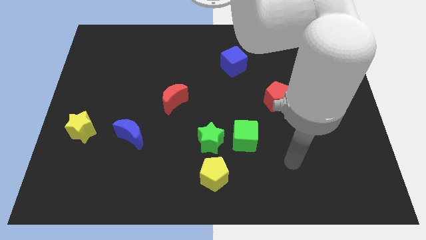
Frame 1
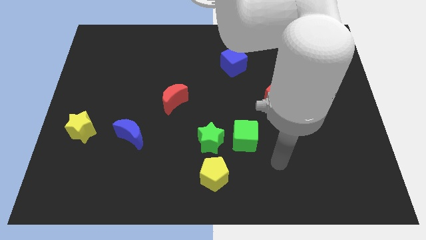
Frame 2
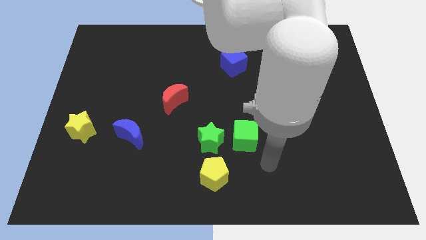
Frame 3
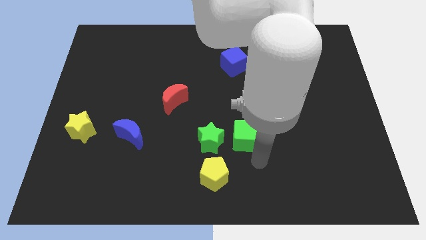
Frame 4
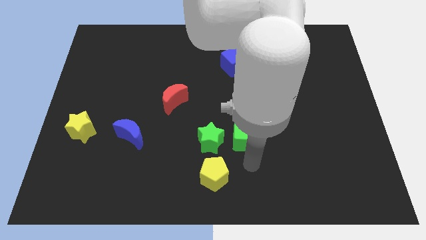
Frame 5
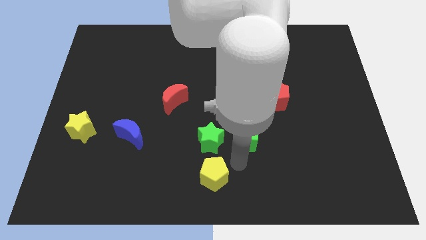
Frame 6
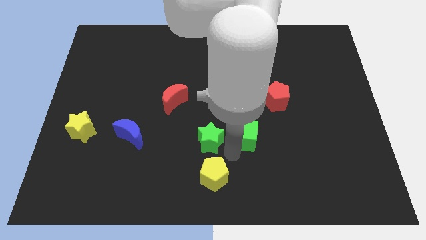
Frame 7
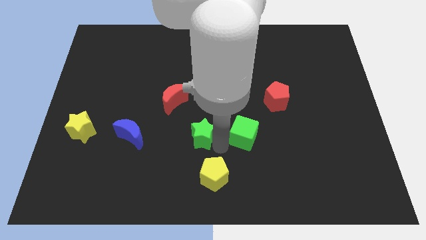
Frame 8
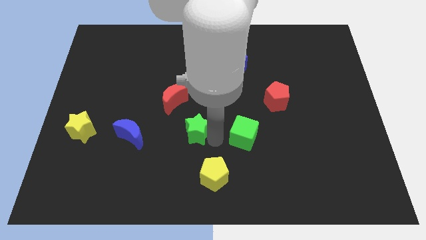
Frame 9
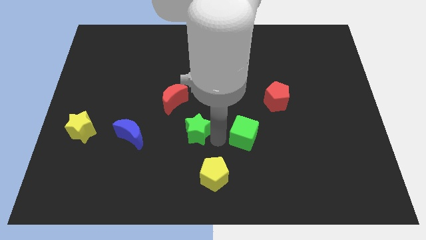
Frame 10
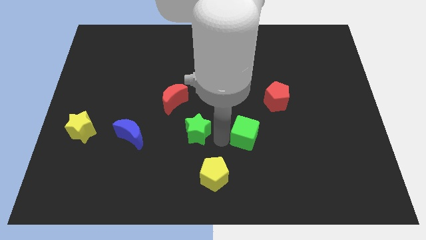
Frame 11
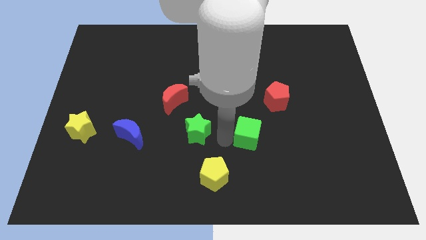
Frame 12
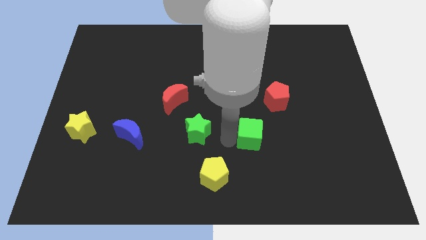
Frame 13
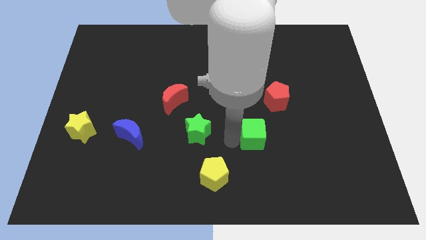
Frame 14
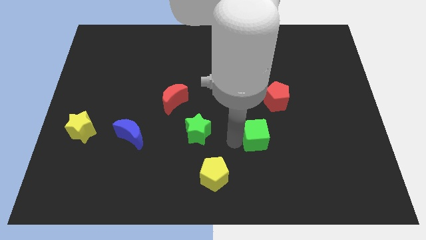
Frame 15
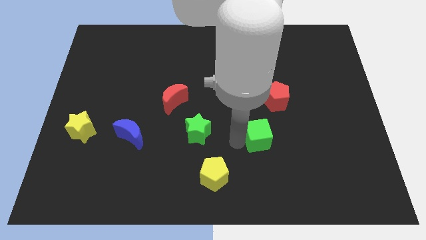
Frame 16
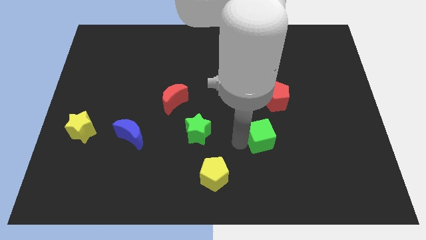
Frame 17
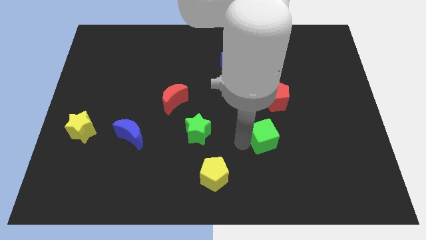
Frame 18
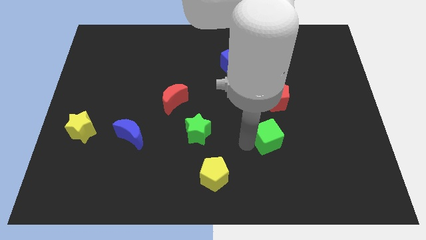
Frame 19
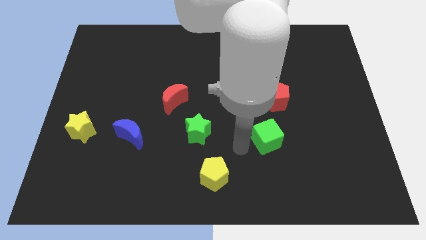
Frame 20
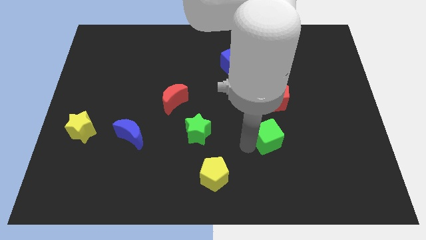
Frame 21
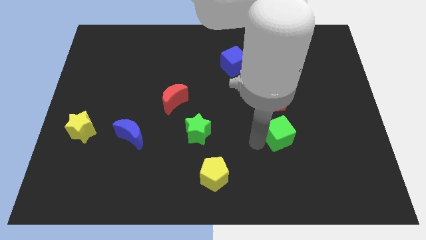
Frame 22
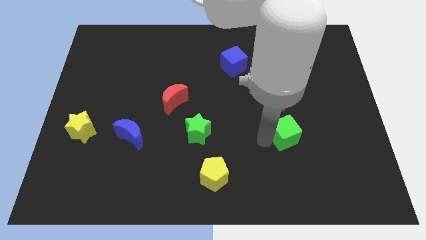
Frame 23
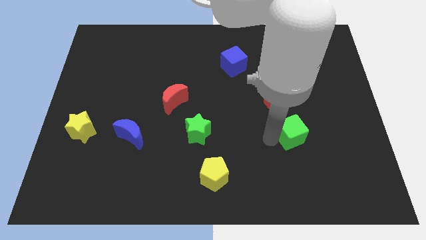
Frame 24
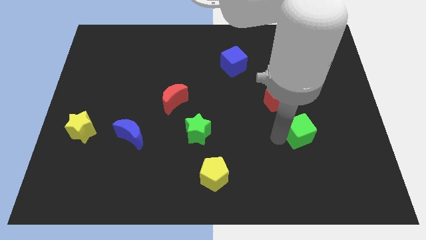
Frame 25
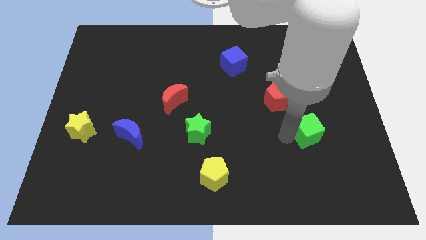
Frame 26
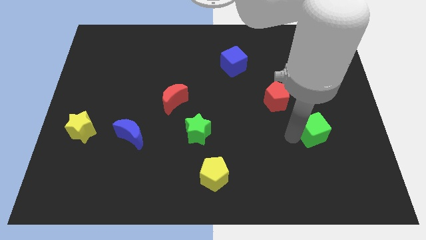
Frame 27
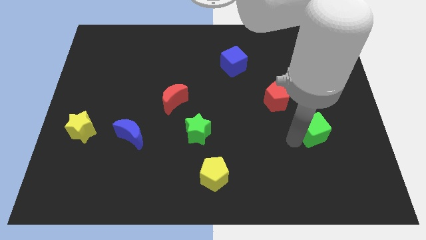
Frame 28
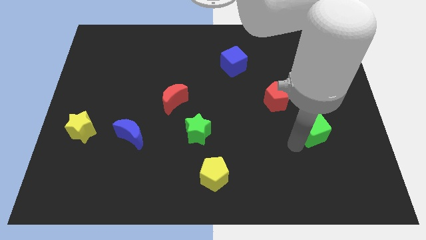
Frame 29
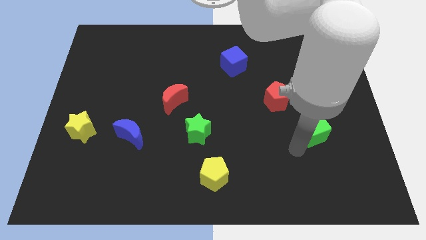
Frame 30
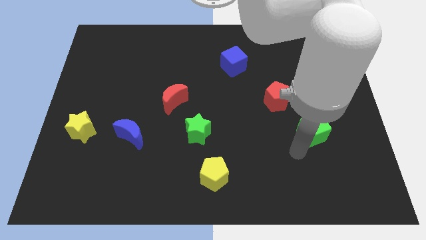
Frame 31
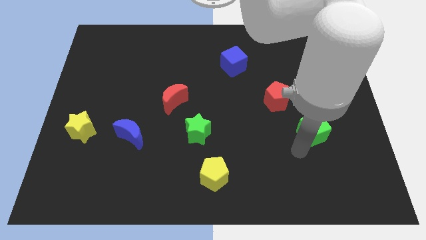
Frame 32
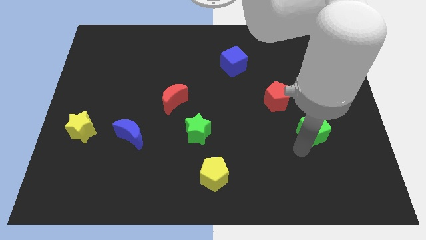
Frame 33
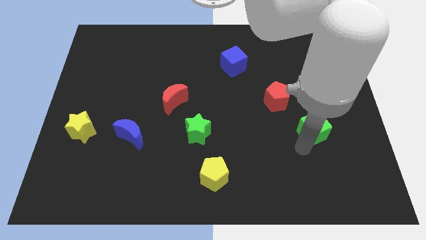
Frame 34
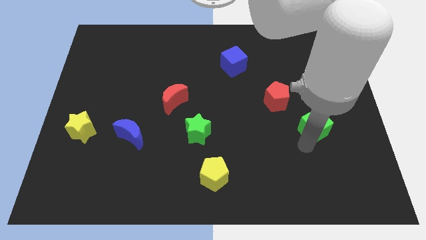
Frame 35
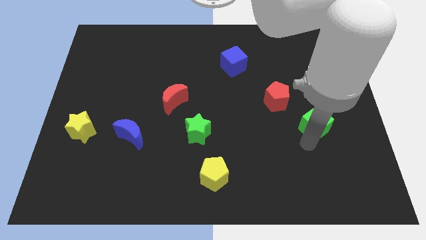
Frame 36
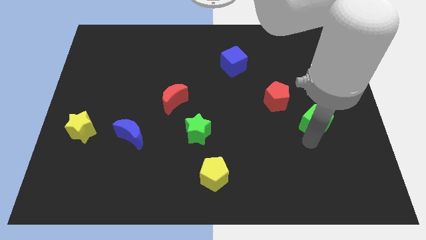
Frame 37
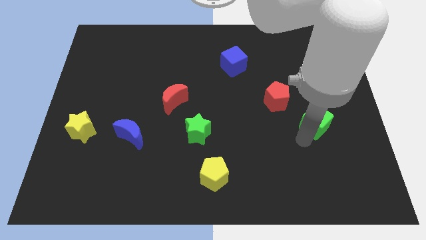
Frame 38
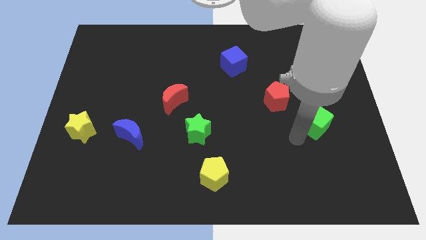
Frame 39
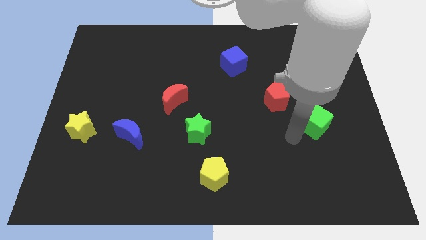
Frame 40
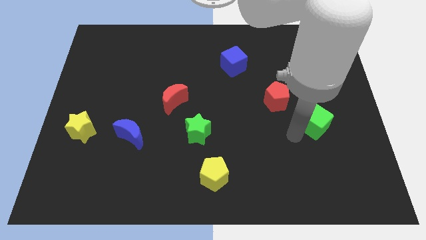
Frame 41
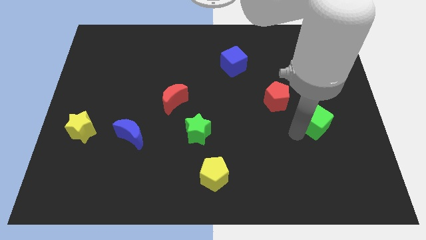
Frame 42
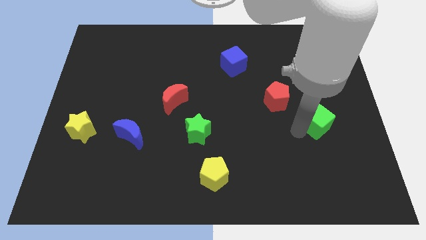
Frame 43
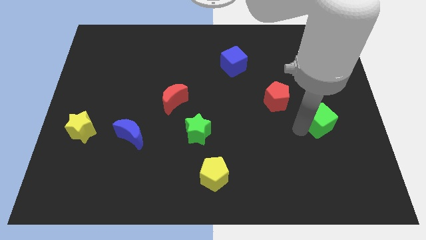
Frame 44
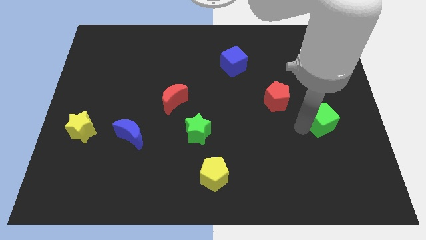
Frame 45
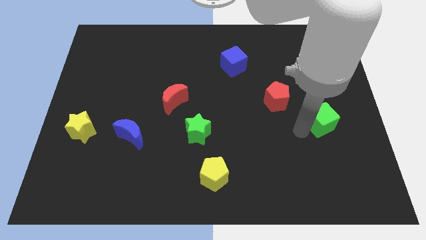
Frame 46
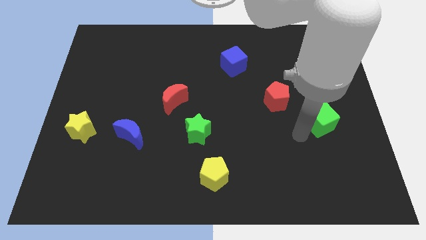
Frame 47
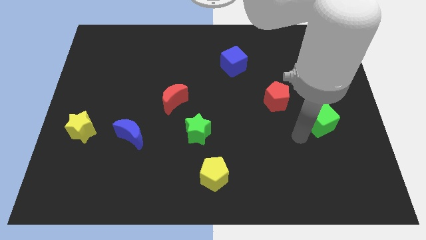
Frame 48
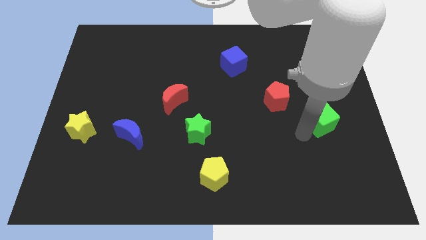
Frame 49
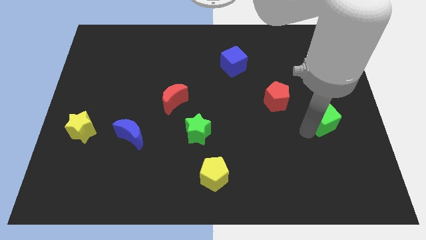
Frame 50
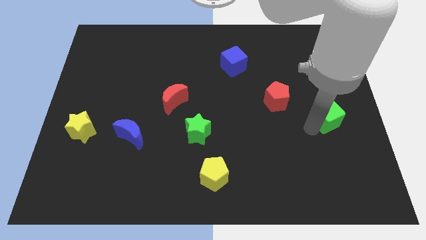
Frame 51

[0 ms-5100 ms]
put the green cube to the center right

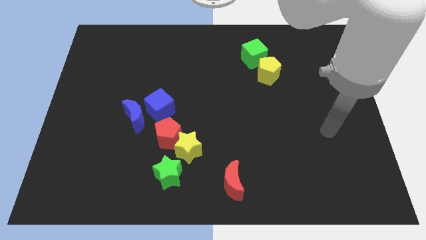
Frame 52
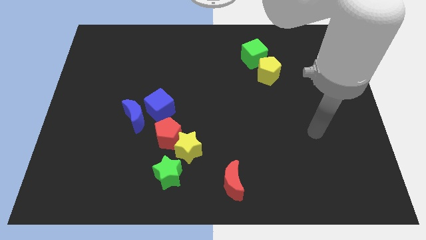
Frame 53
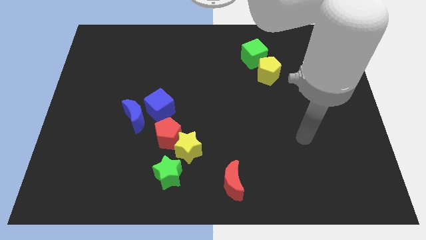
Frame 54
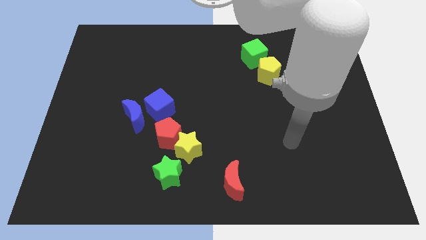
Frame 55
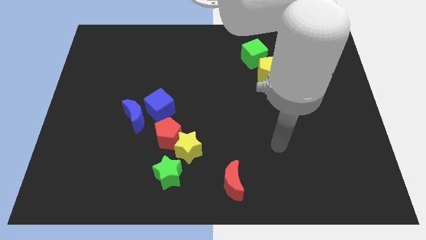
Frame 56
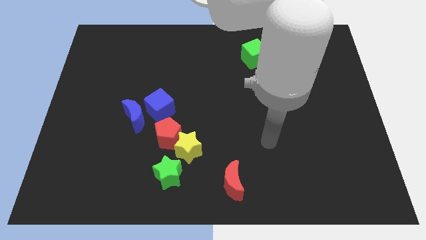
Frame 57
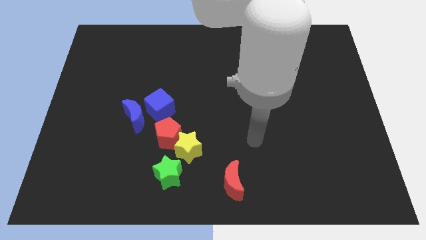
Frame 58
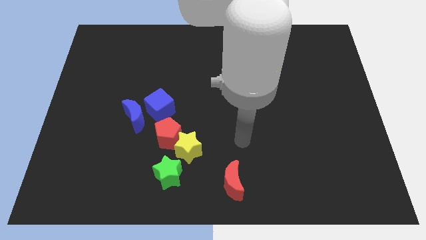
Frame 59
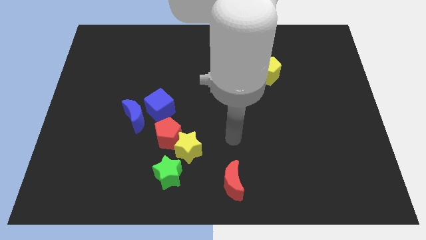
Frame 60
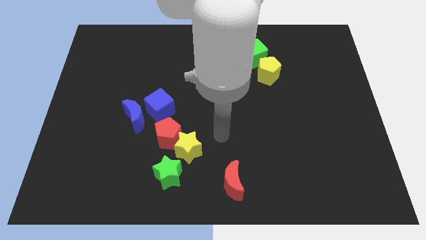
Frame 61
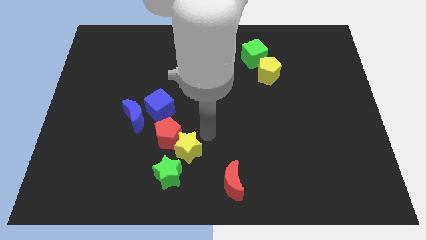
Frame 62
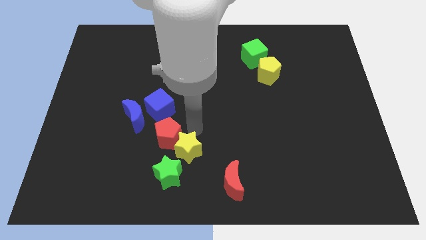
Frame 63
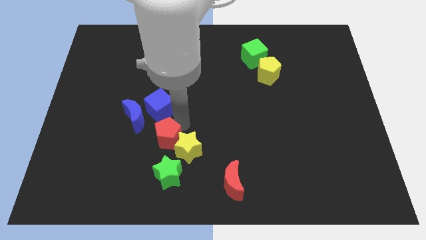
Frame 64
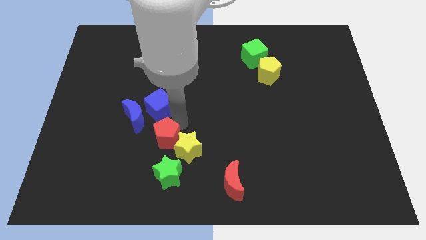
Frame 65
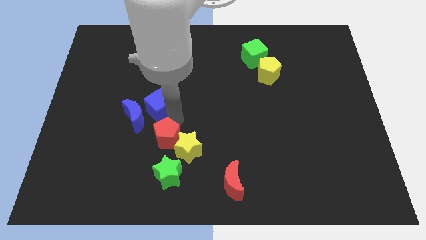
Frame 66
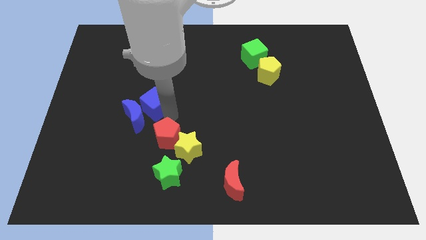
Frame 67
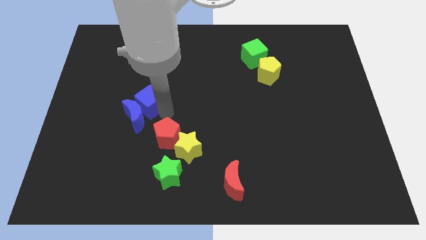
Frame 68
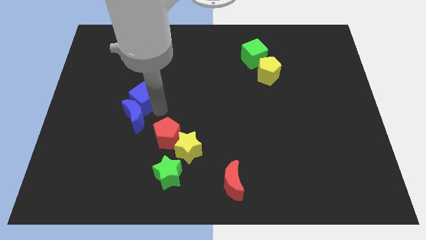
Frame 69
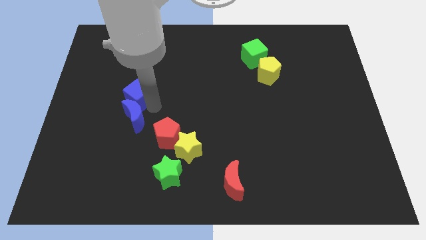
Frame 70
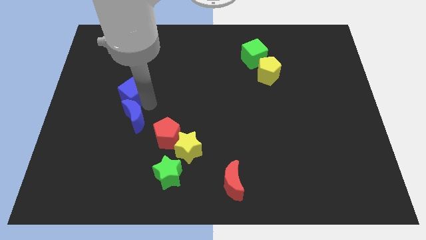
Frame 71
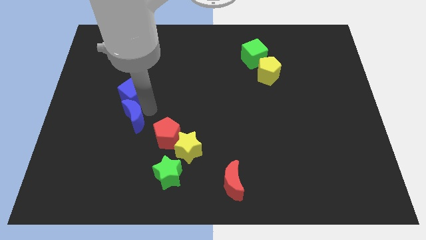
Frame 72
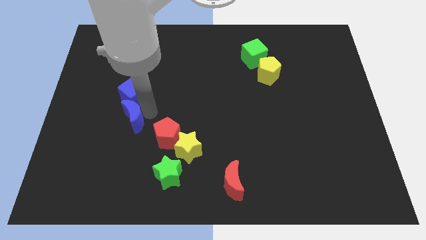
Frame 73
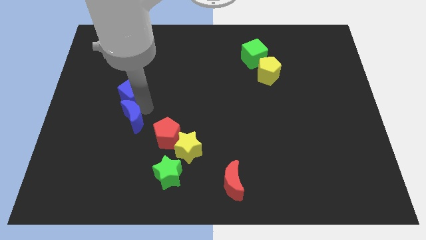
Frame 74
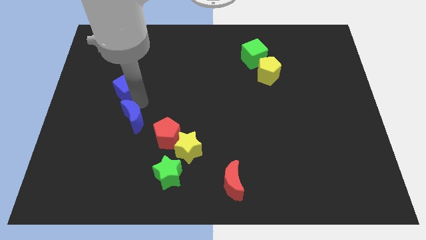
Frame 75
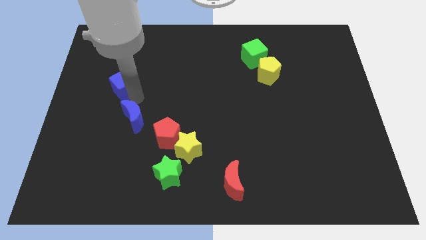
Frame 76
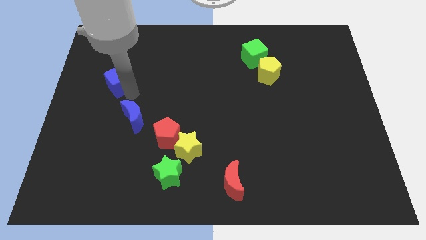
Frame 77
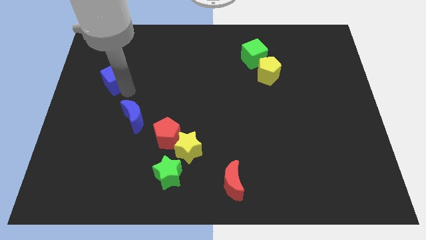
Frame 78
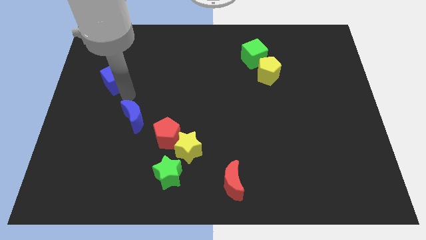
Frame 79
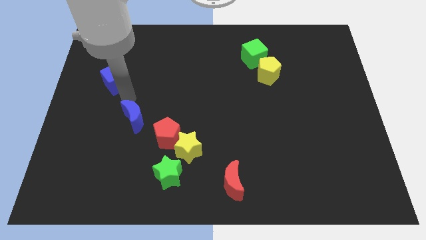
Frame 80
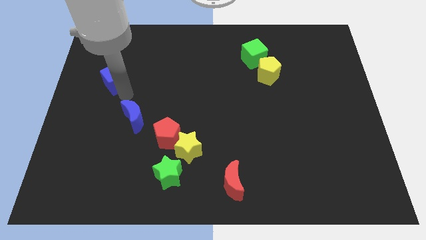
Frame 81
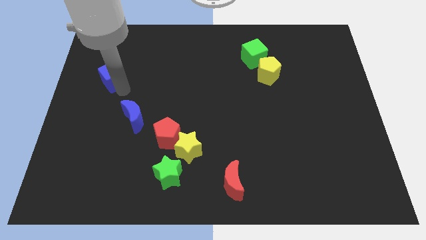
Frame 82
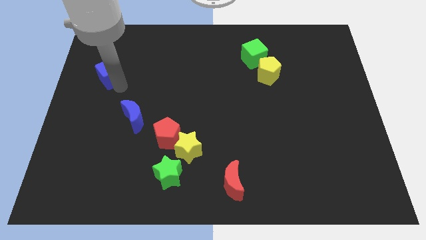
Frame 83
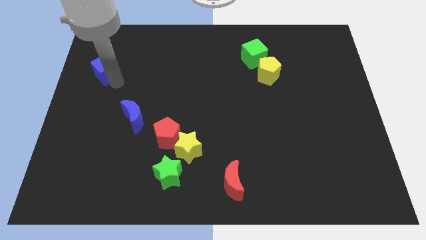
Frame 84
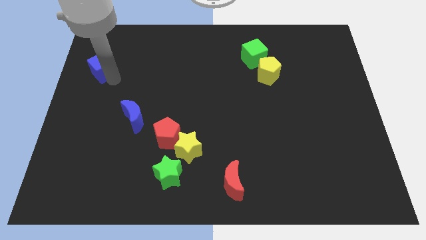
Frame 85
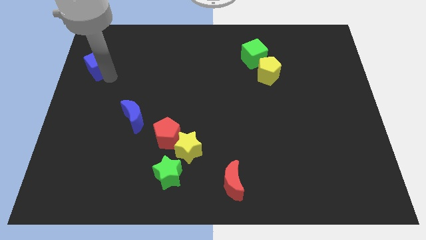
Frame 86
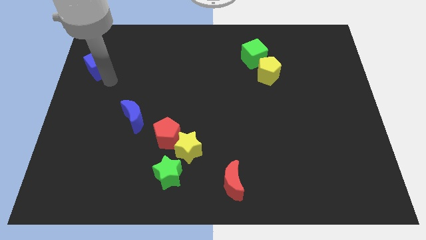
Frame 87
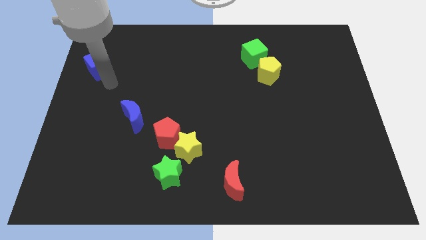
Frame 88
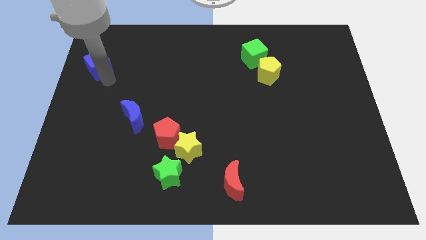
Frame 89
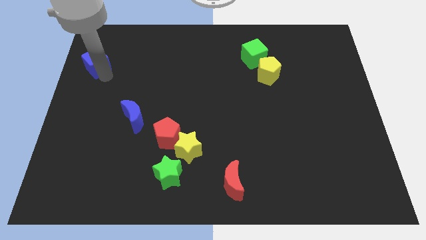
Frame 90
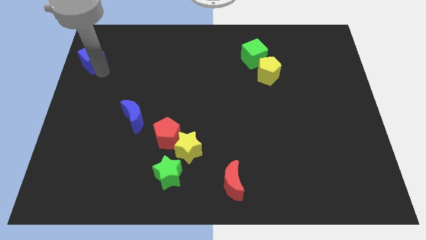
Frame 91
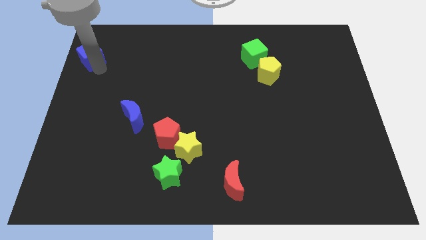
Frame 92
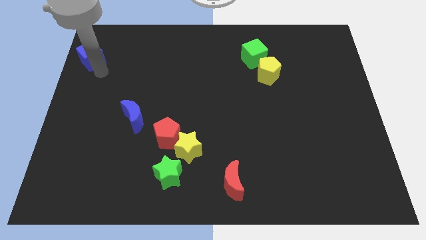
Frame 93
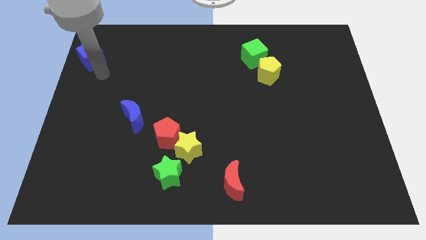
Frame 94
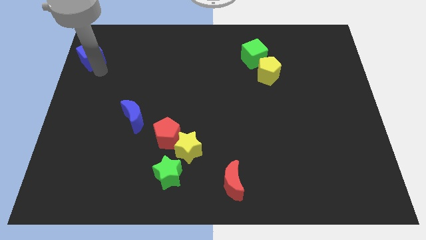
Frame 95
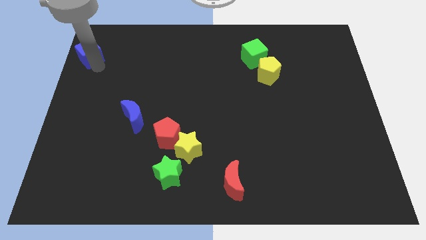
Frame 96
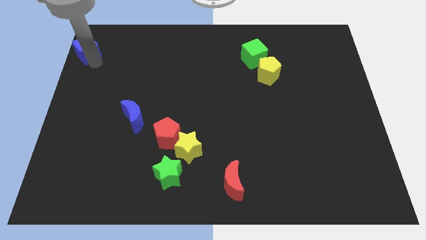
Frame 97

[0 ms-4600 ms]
slide the blue cube to the top left corner
